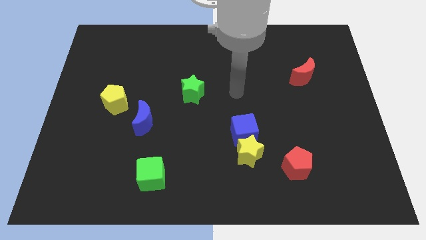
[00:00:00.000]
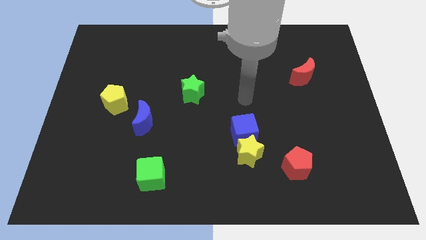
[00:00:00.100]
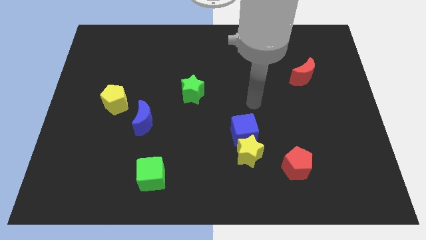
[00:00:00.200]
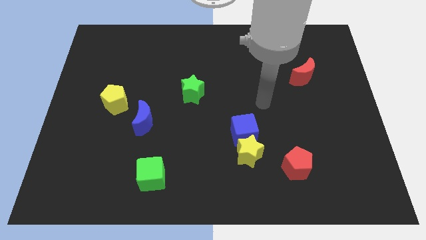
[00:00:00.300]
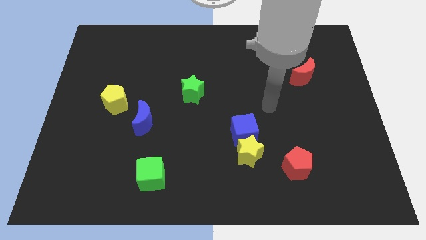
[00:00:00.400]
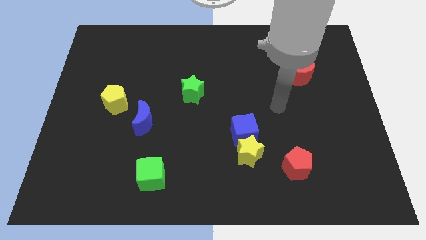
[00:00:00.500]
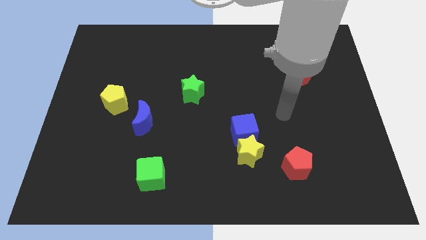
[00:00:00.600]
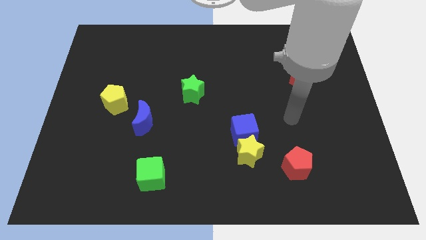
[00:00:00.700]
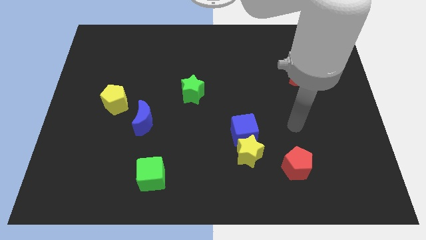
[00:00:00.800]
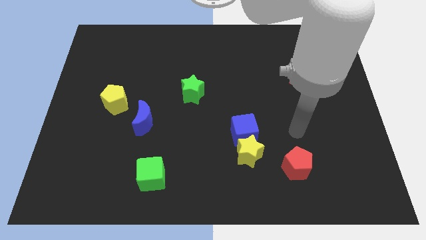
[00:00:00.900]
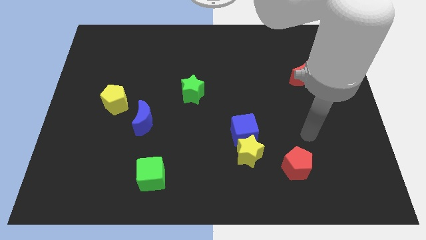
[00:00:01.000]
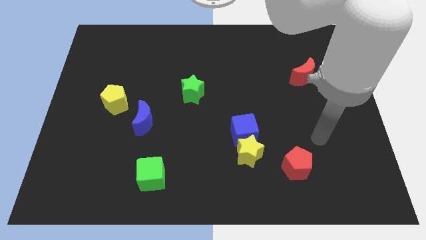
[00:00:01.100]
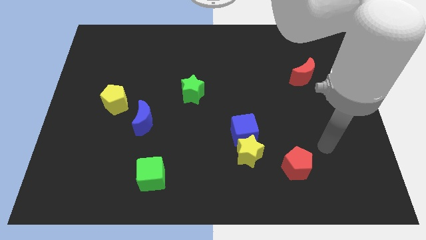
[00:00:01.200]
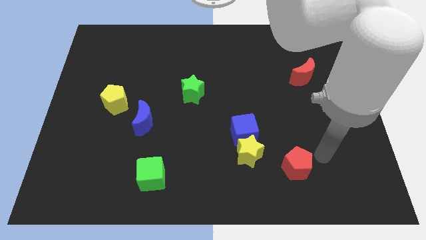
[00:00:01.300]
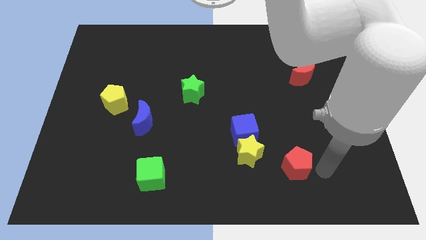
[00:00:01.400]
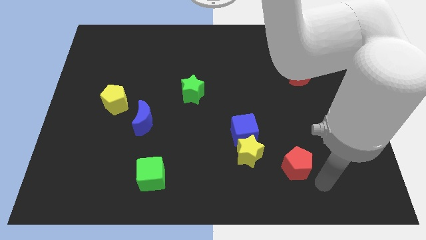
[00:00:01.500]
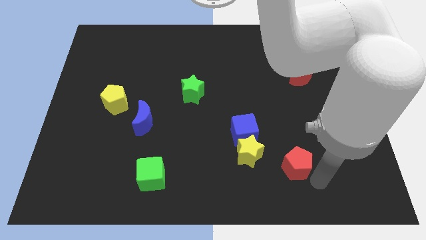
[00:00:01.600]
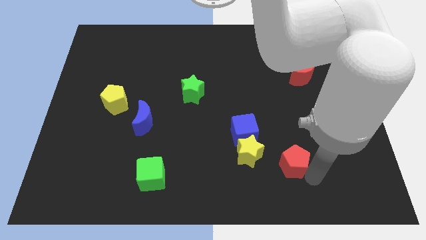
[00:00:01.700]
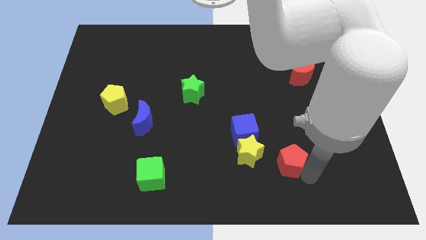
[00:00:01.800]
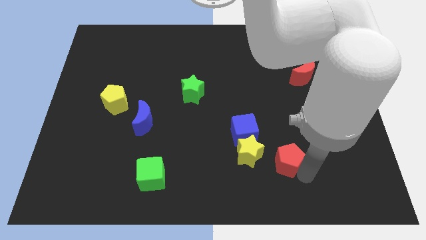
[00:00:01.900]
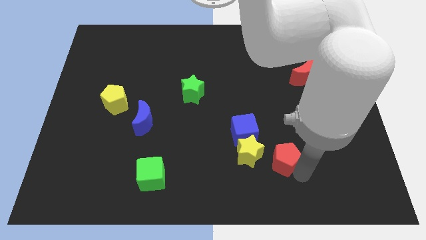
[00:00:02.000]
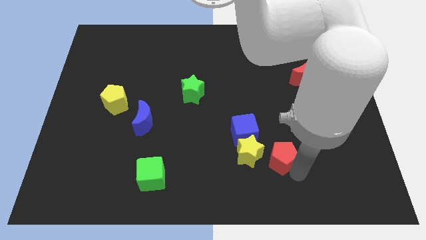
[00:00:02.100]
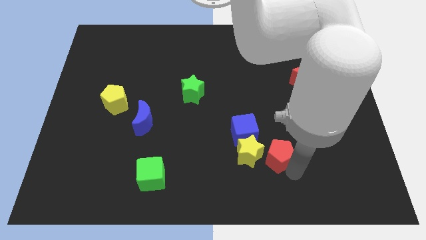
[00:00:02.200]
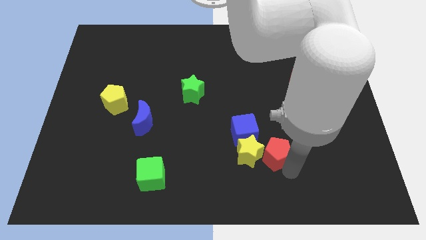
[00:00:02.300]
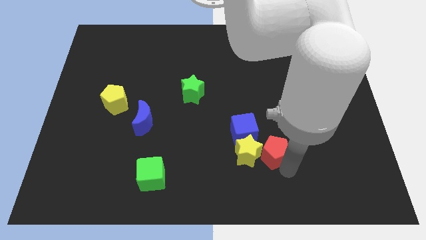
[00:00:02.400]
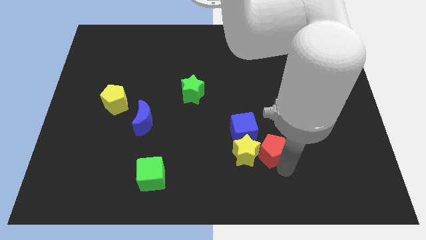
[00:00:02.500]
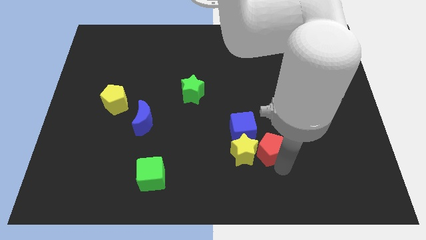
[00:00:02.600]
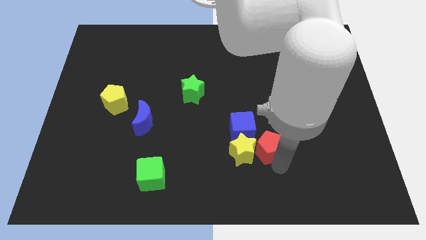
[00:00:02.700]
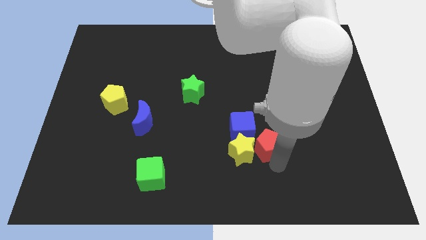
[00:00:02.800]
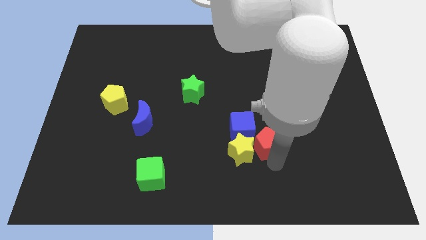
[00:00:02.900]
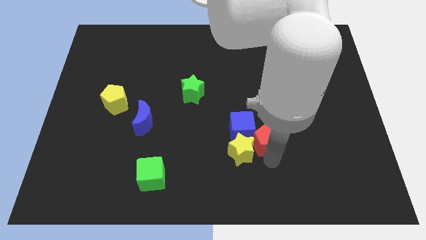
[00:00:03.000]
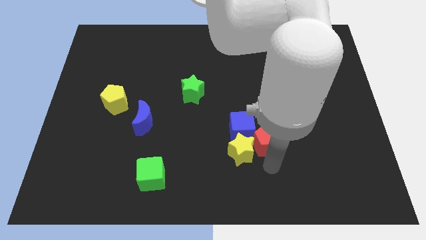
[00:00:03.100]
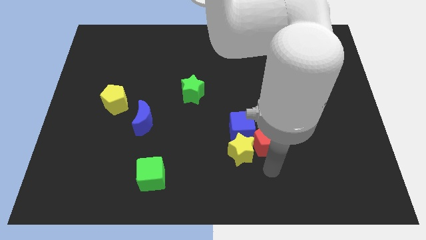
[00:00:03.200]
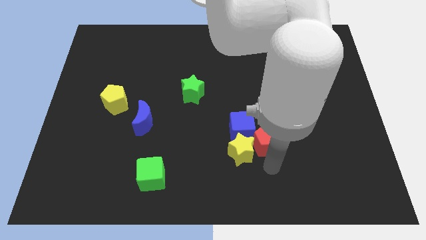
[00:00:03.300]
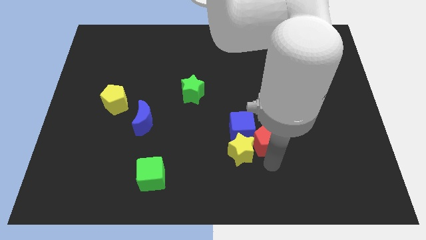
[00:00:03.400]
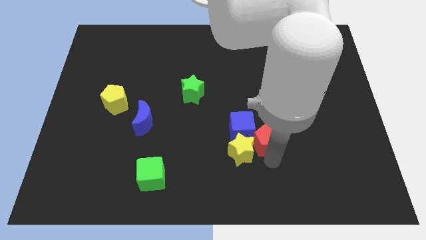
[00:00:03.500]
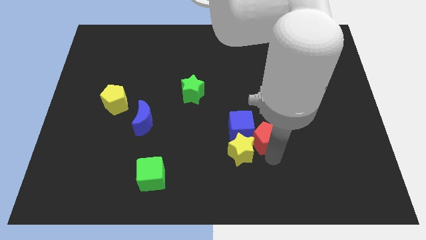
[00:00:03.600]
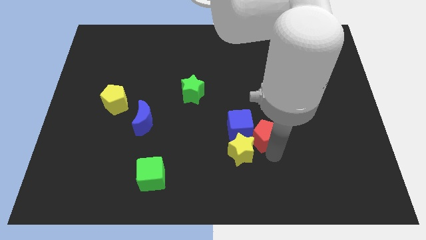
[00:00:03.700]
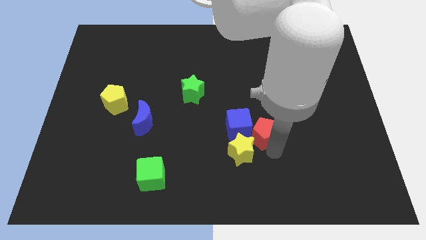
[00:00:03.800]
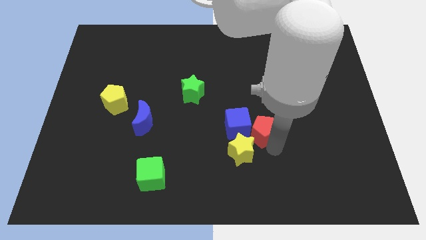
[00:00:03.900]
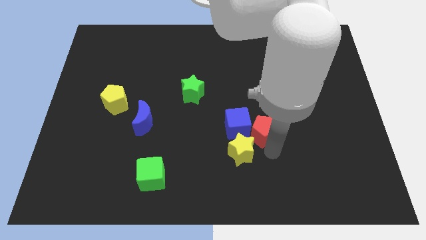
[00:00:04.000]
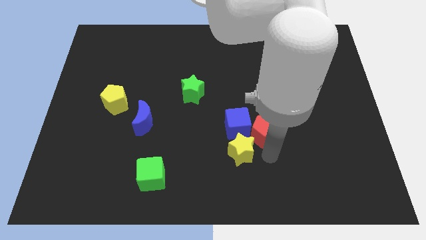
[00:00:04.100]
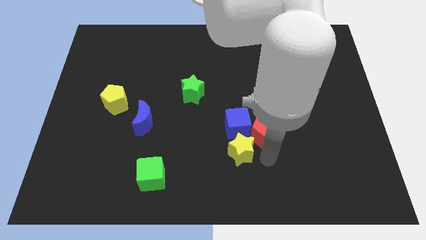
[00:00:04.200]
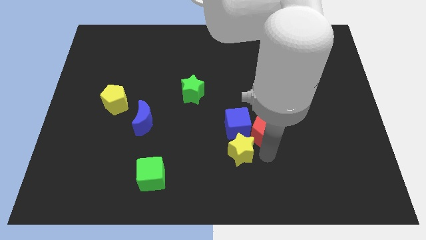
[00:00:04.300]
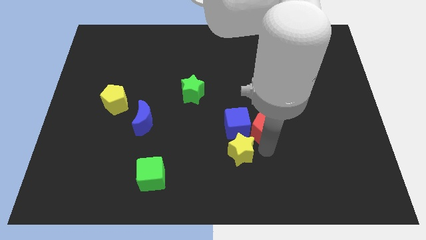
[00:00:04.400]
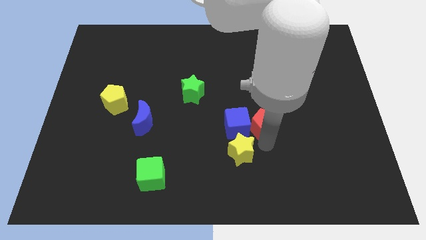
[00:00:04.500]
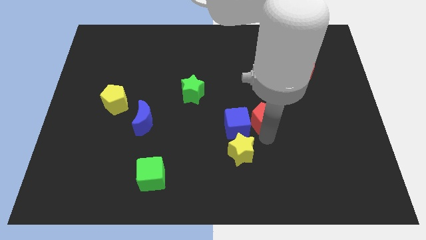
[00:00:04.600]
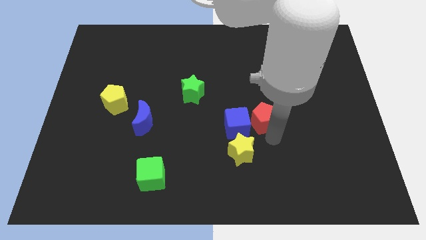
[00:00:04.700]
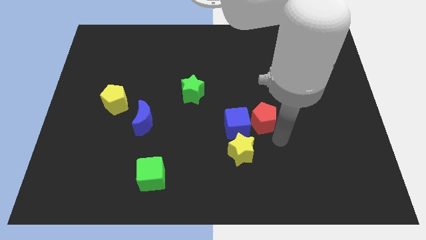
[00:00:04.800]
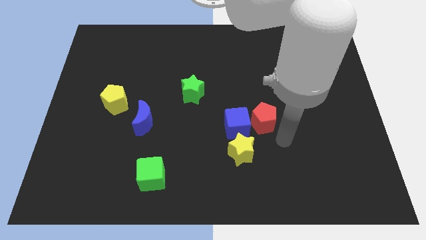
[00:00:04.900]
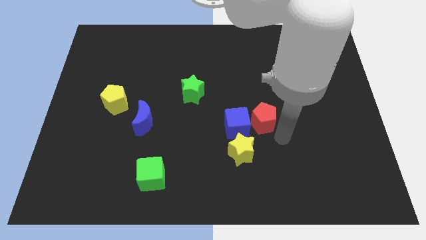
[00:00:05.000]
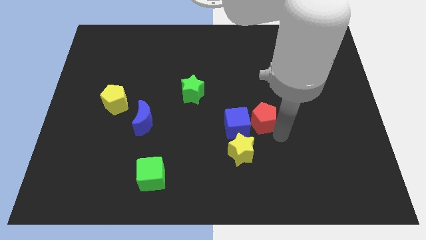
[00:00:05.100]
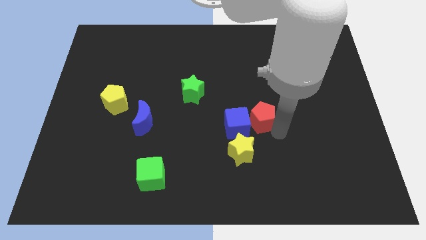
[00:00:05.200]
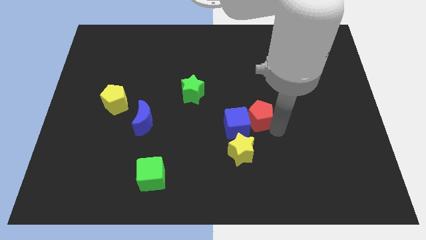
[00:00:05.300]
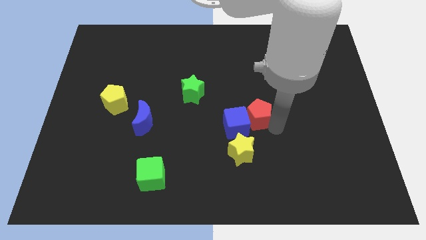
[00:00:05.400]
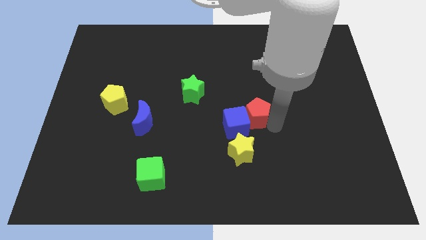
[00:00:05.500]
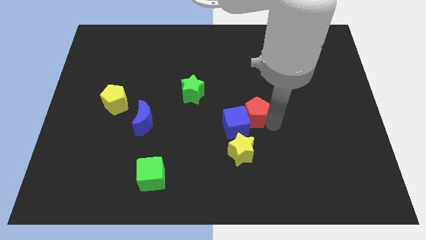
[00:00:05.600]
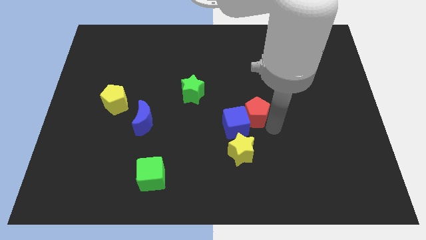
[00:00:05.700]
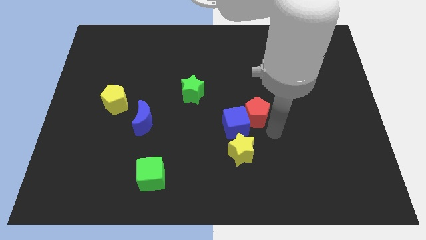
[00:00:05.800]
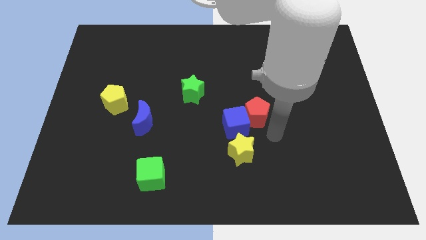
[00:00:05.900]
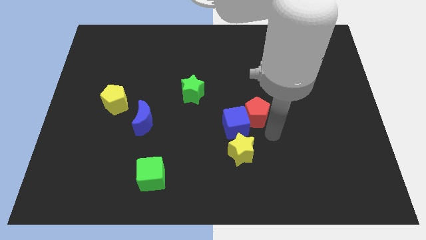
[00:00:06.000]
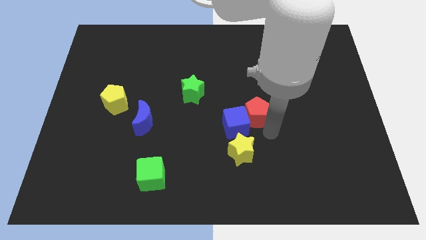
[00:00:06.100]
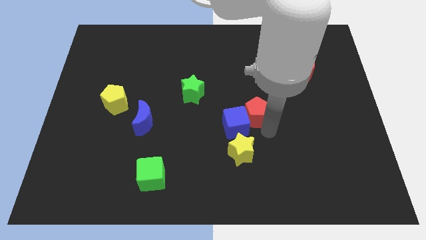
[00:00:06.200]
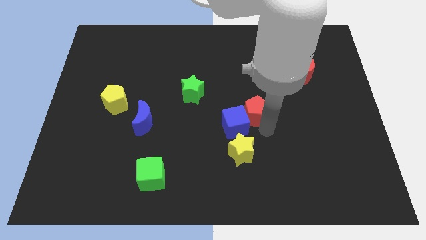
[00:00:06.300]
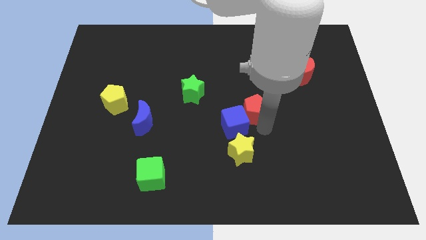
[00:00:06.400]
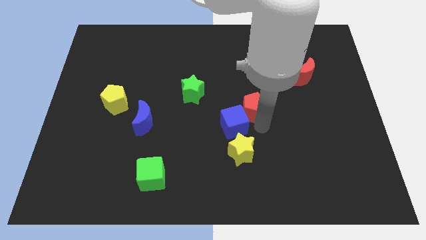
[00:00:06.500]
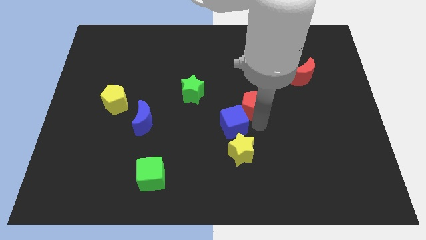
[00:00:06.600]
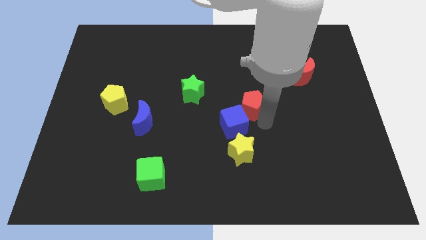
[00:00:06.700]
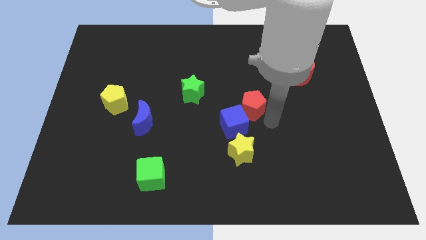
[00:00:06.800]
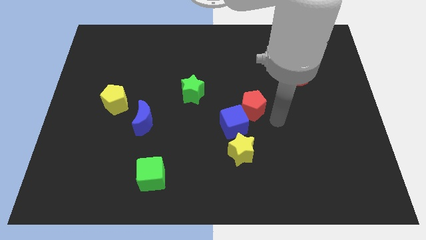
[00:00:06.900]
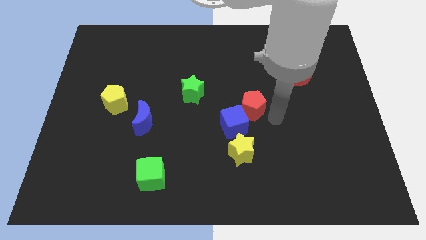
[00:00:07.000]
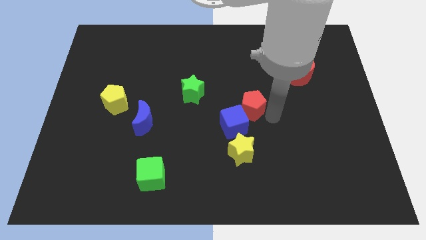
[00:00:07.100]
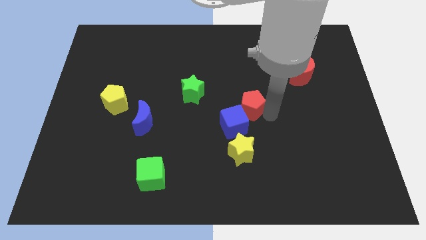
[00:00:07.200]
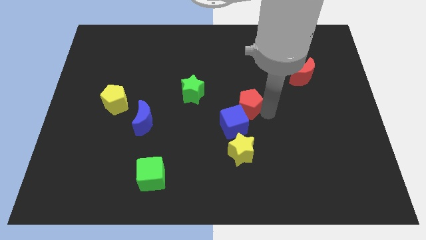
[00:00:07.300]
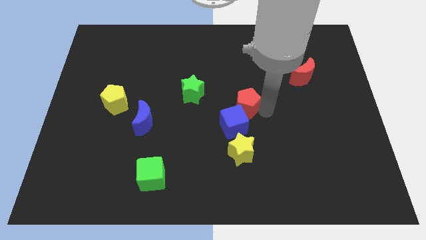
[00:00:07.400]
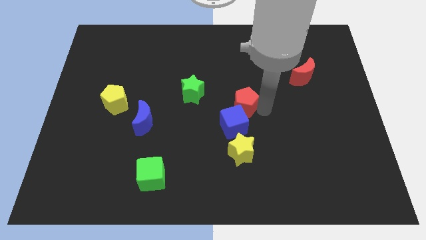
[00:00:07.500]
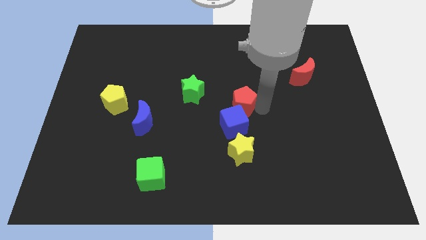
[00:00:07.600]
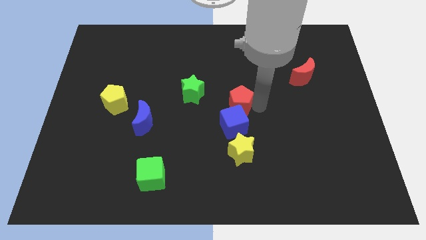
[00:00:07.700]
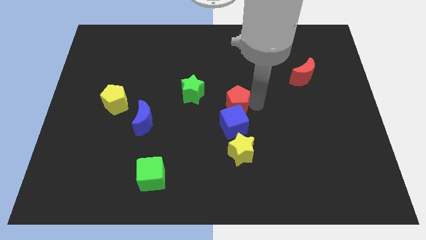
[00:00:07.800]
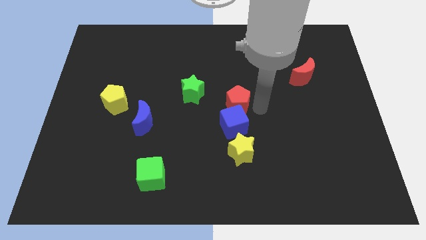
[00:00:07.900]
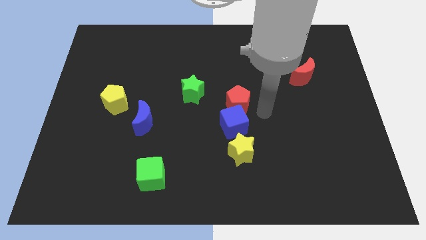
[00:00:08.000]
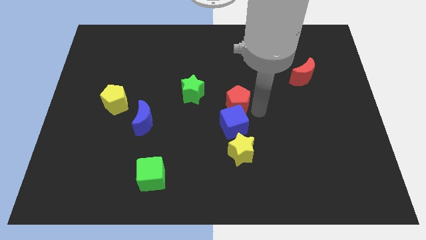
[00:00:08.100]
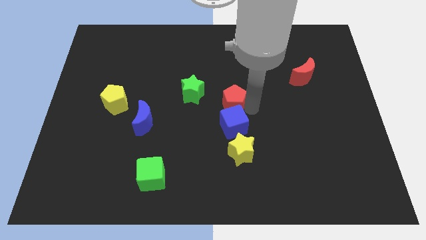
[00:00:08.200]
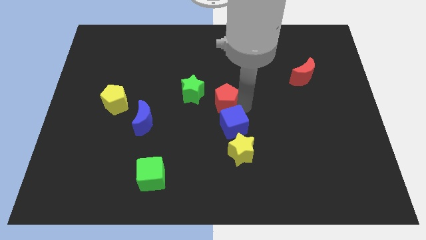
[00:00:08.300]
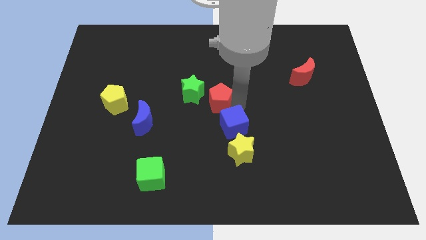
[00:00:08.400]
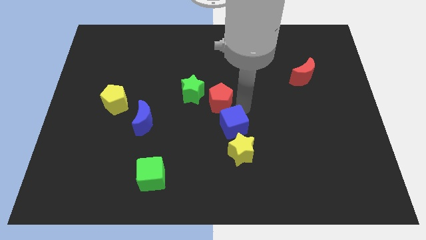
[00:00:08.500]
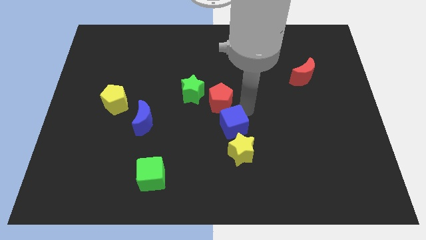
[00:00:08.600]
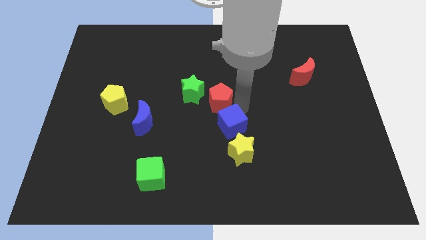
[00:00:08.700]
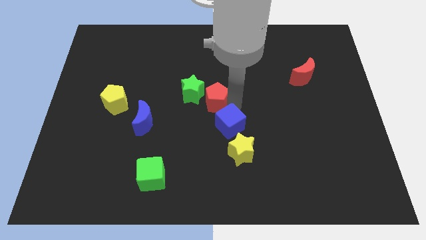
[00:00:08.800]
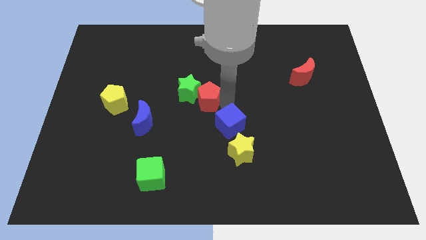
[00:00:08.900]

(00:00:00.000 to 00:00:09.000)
put the red pentagon towards the green star
